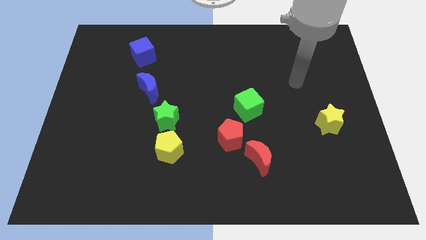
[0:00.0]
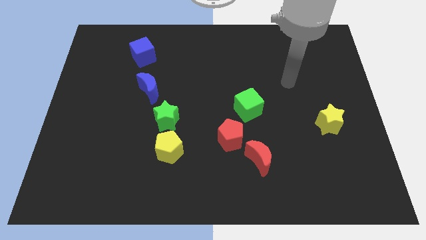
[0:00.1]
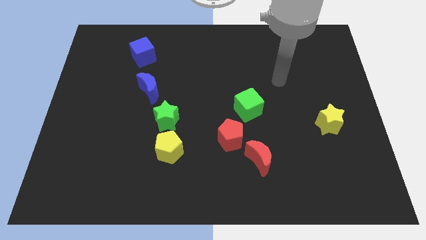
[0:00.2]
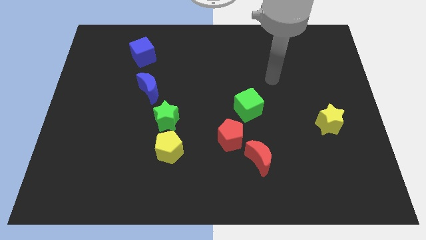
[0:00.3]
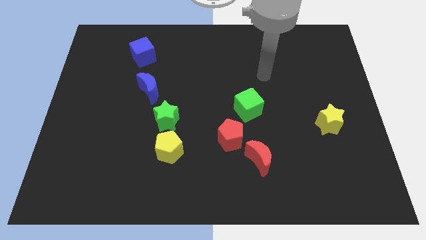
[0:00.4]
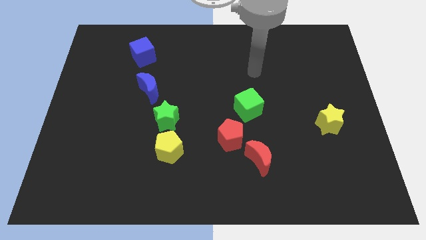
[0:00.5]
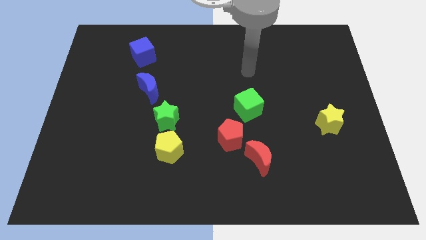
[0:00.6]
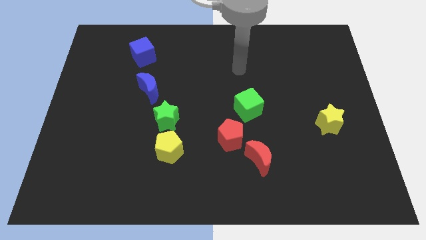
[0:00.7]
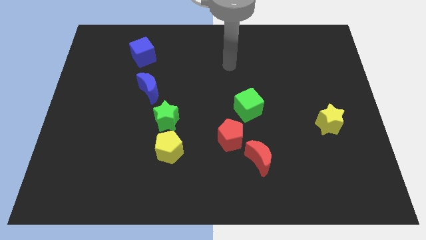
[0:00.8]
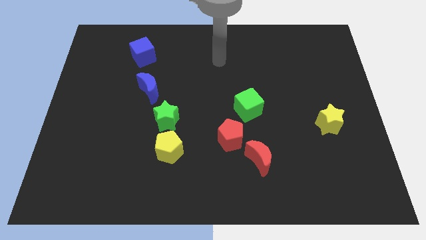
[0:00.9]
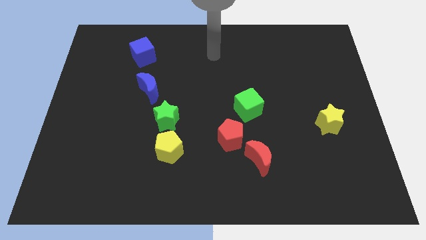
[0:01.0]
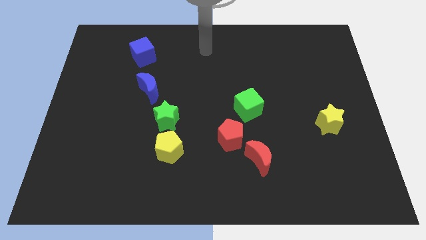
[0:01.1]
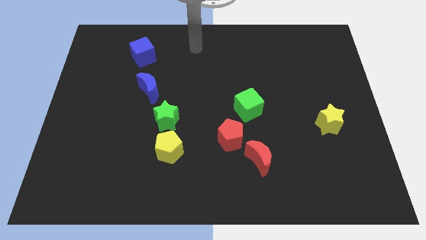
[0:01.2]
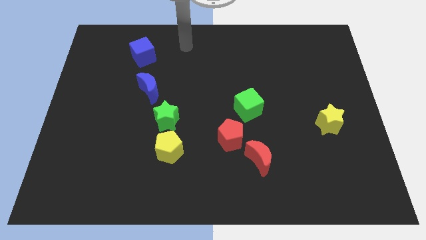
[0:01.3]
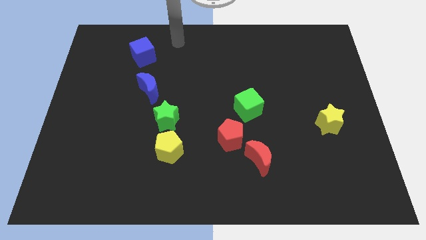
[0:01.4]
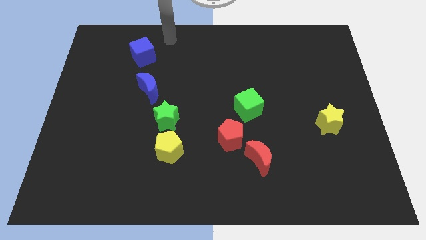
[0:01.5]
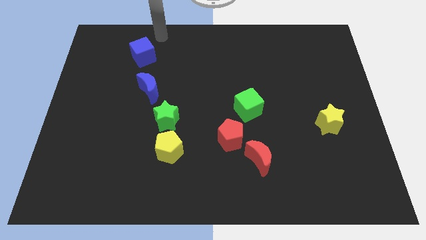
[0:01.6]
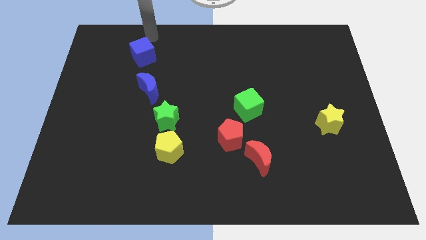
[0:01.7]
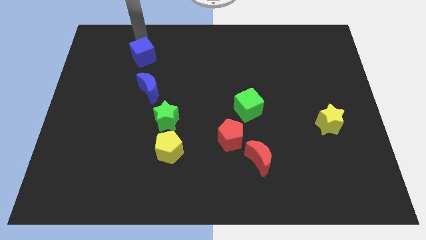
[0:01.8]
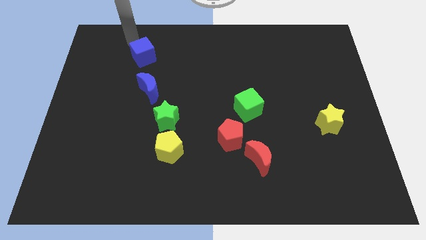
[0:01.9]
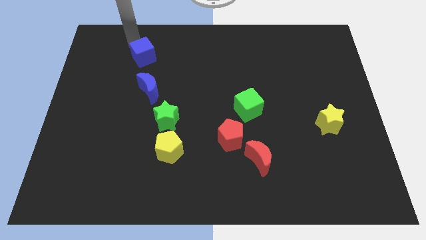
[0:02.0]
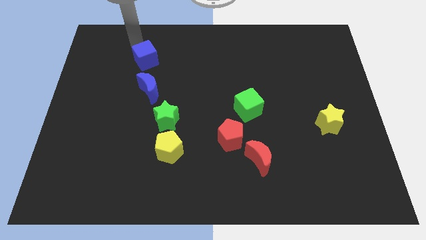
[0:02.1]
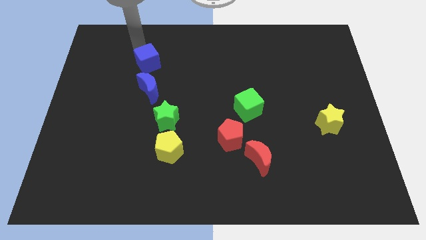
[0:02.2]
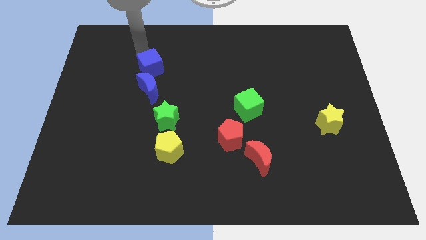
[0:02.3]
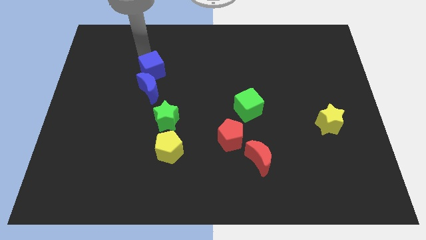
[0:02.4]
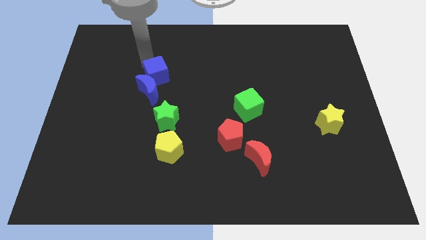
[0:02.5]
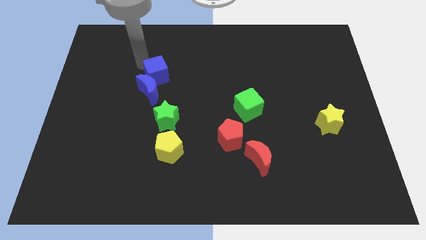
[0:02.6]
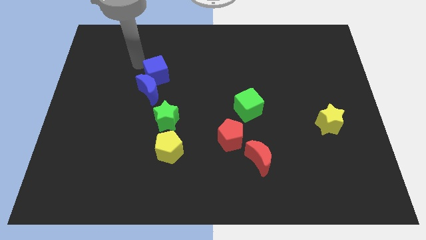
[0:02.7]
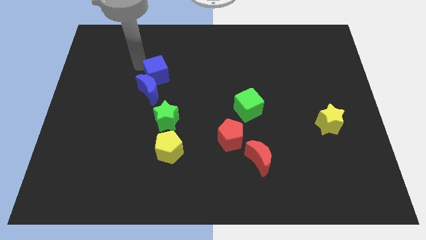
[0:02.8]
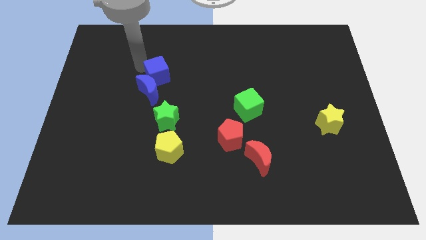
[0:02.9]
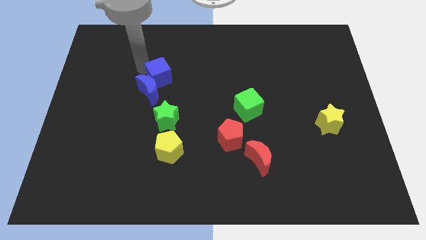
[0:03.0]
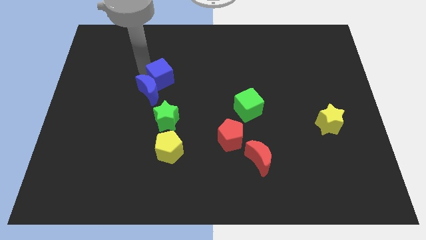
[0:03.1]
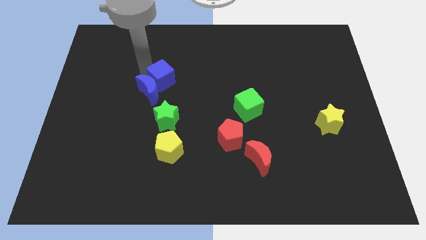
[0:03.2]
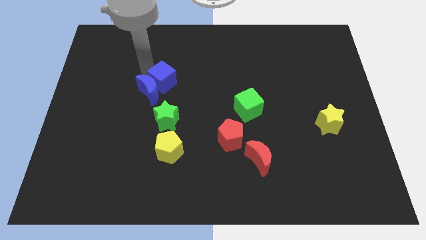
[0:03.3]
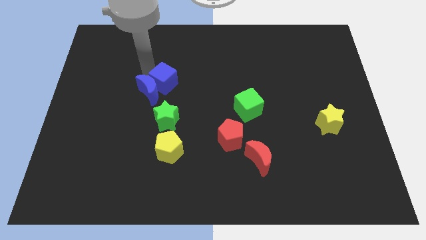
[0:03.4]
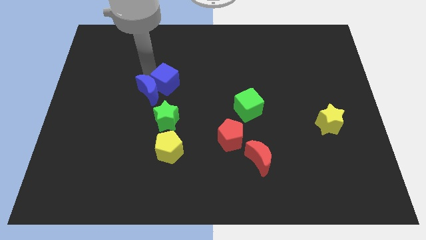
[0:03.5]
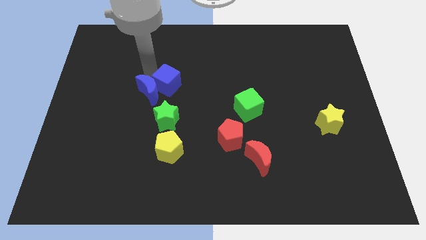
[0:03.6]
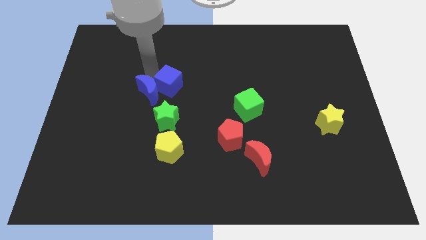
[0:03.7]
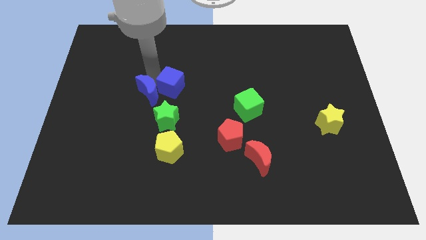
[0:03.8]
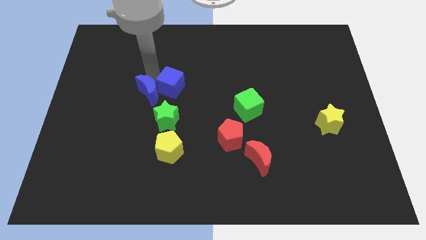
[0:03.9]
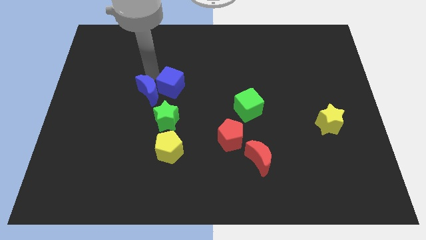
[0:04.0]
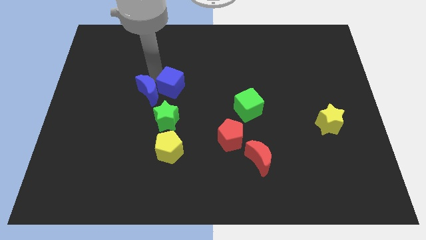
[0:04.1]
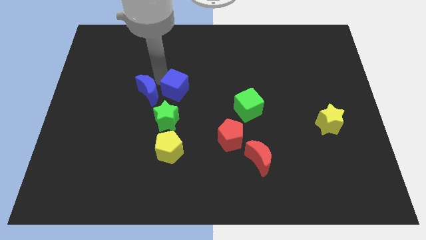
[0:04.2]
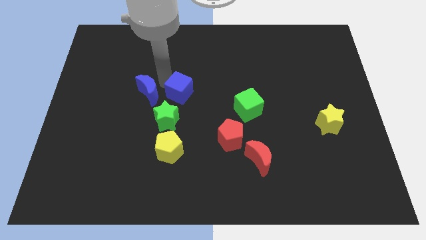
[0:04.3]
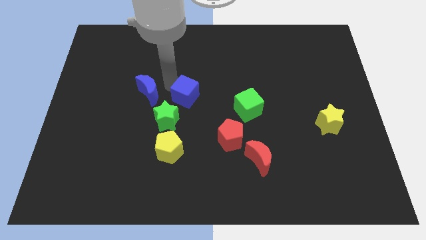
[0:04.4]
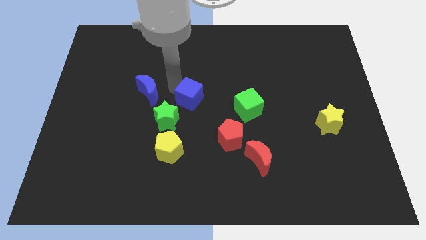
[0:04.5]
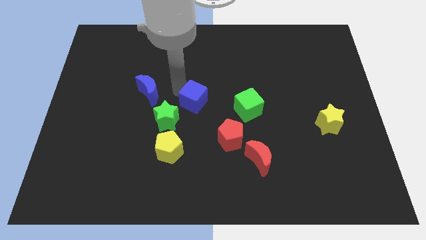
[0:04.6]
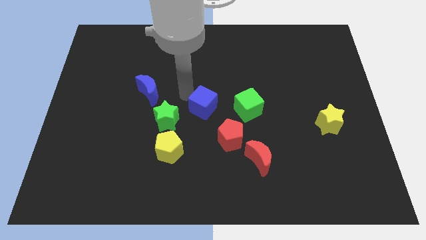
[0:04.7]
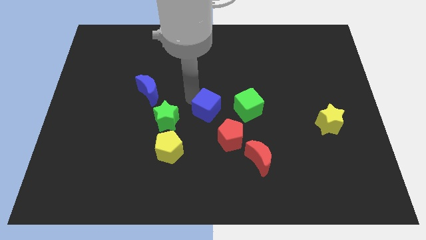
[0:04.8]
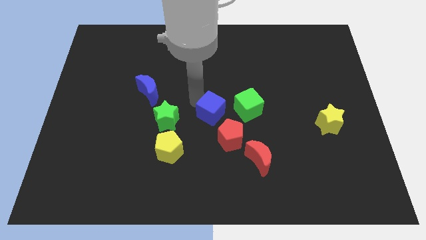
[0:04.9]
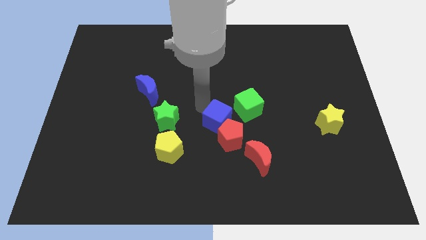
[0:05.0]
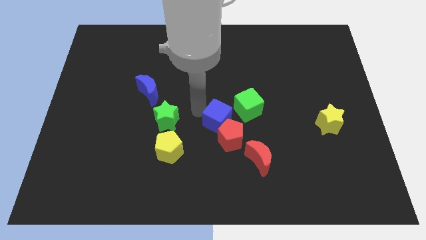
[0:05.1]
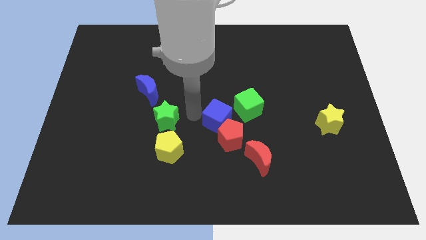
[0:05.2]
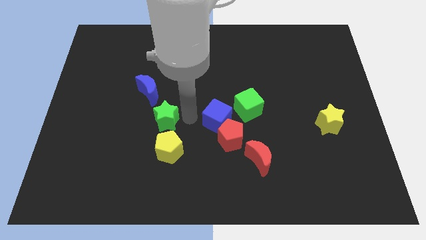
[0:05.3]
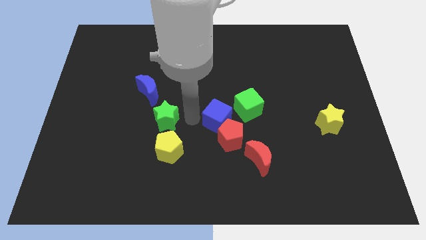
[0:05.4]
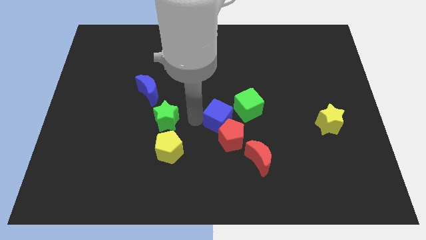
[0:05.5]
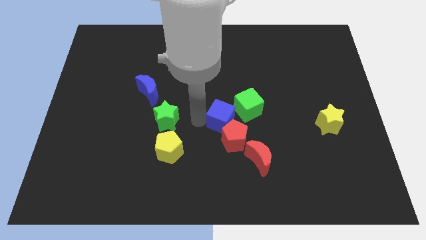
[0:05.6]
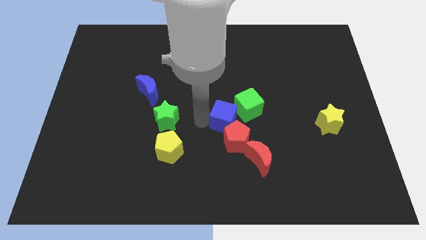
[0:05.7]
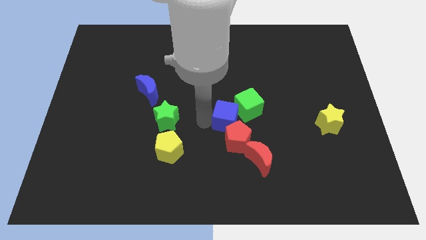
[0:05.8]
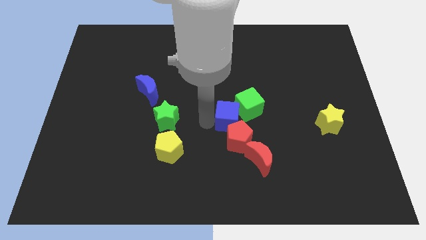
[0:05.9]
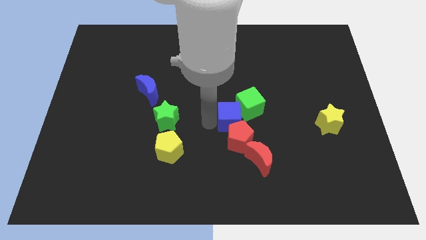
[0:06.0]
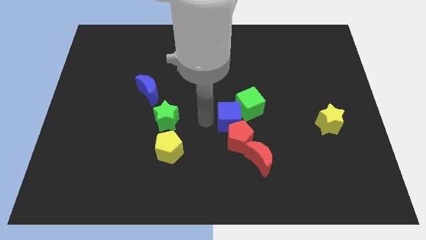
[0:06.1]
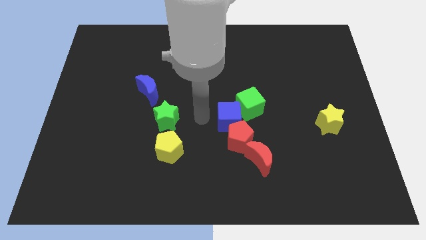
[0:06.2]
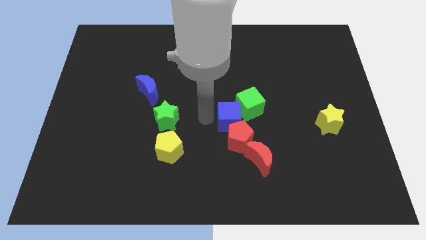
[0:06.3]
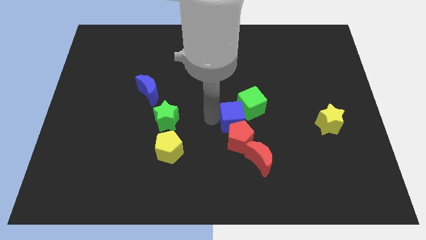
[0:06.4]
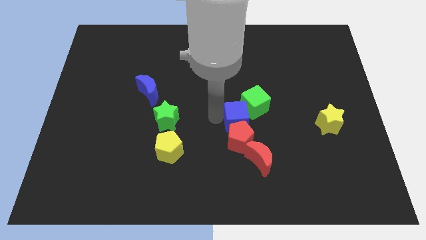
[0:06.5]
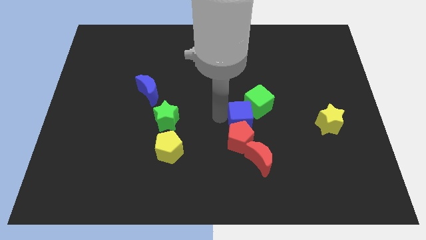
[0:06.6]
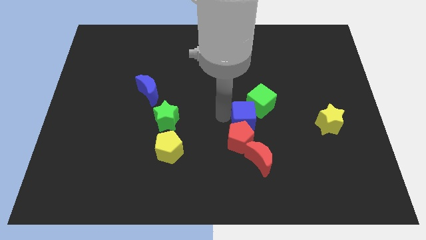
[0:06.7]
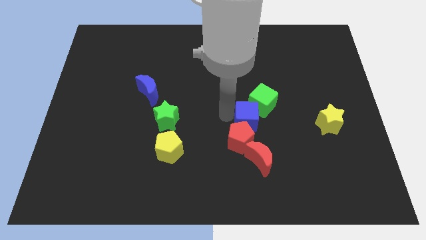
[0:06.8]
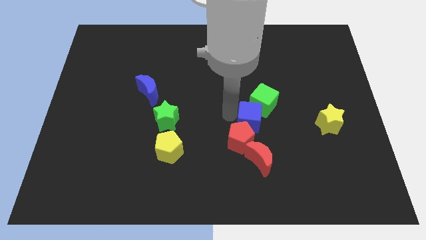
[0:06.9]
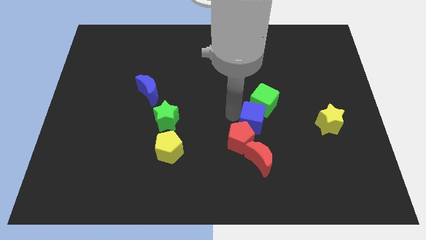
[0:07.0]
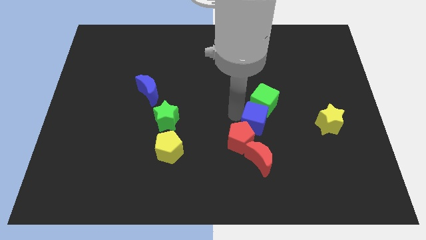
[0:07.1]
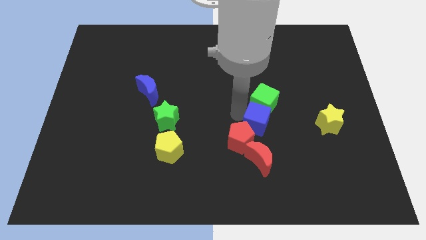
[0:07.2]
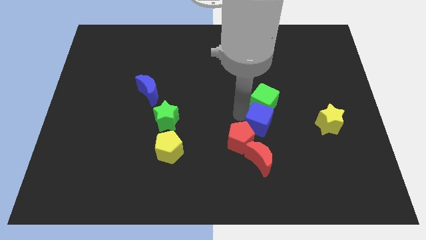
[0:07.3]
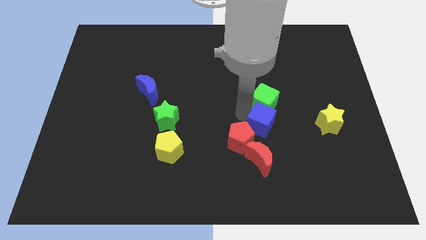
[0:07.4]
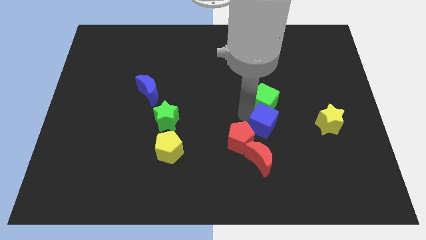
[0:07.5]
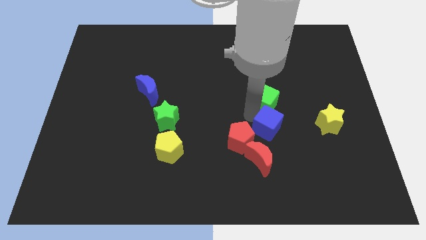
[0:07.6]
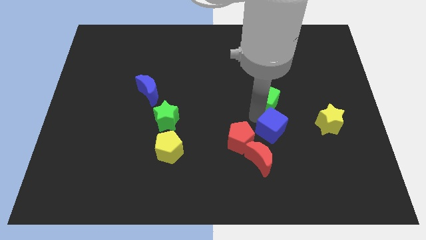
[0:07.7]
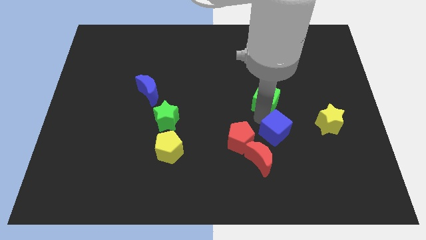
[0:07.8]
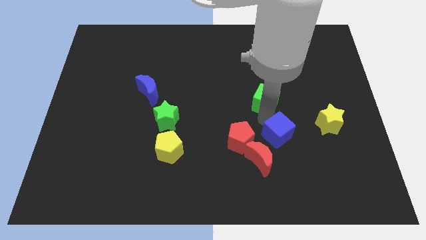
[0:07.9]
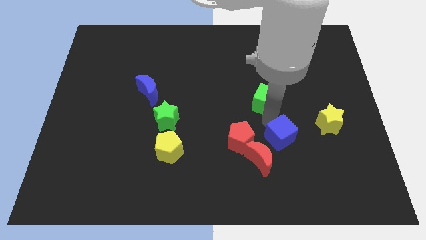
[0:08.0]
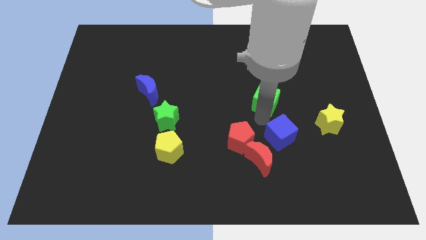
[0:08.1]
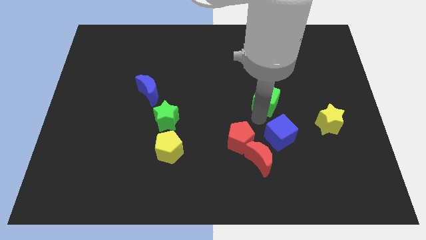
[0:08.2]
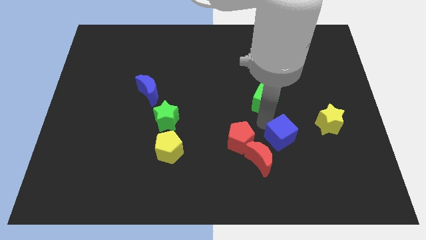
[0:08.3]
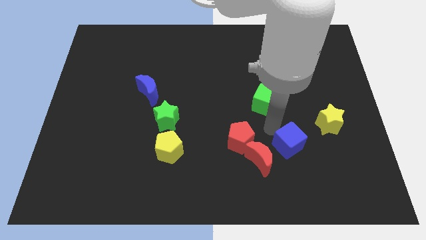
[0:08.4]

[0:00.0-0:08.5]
put the blue cube to the right of the red moon
